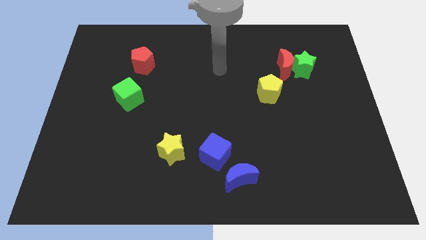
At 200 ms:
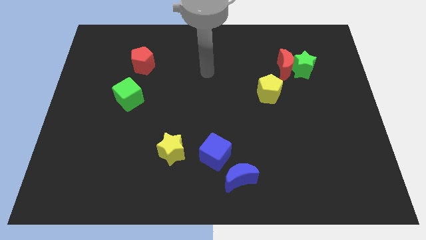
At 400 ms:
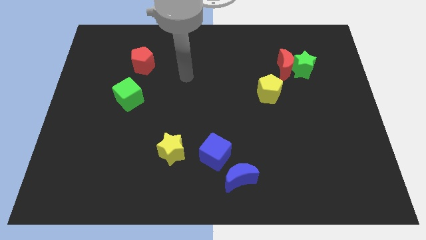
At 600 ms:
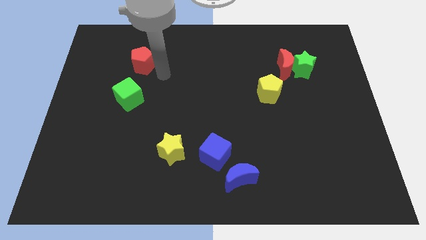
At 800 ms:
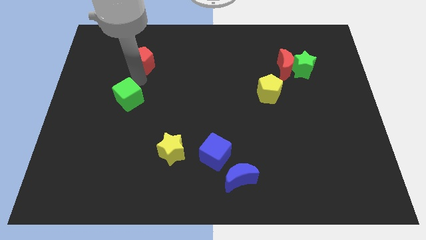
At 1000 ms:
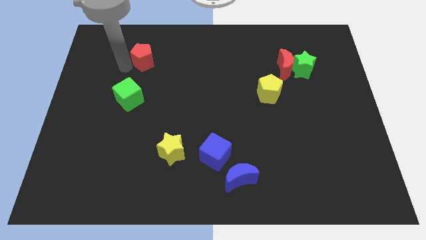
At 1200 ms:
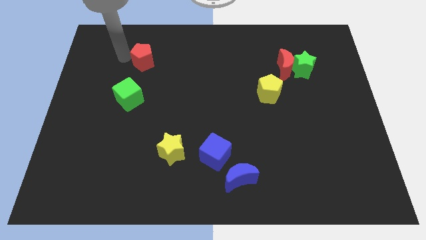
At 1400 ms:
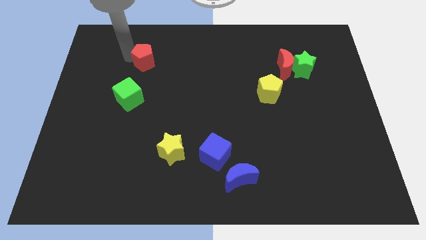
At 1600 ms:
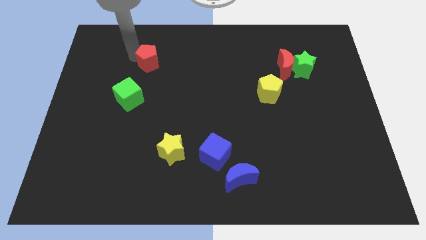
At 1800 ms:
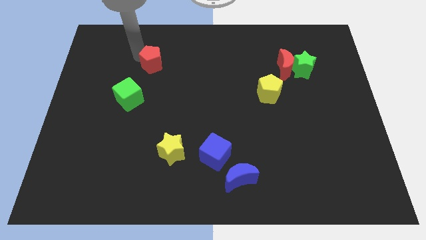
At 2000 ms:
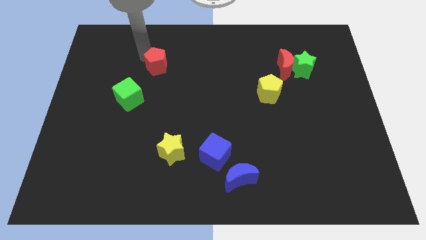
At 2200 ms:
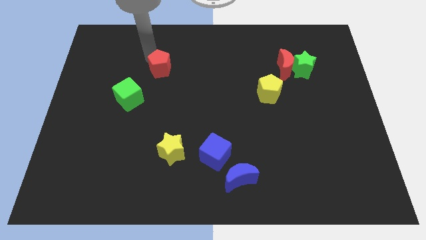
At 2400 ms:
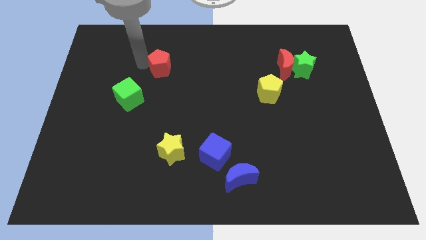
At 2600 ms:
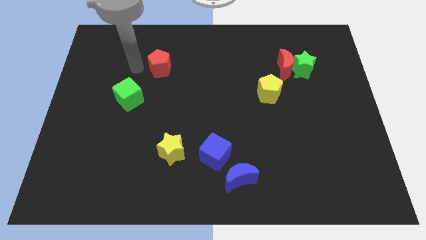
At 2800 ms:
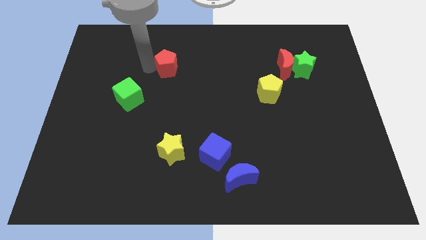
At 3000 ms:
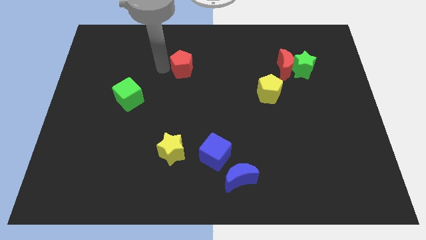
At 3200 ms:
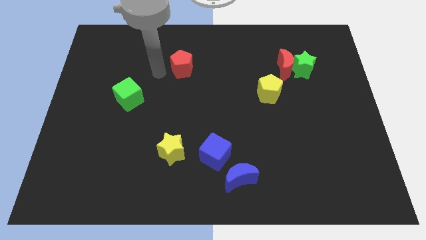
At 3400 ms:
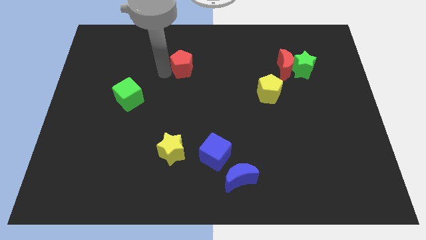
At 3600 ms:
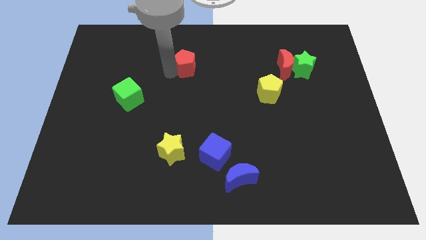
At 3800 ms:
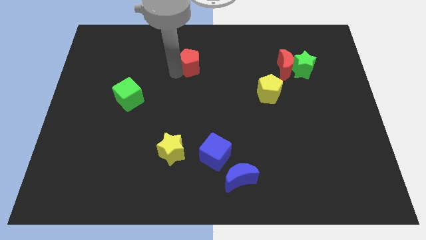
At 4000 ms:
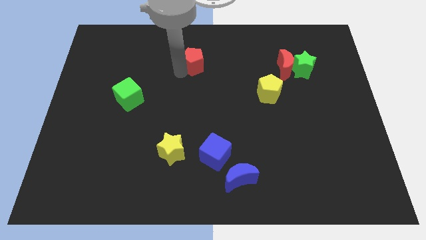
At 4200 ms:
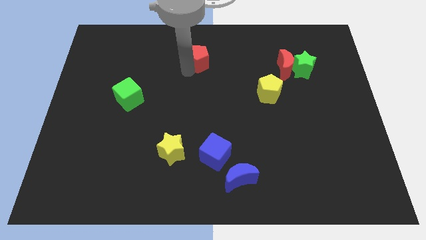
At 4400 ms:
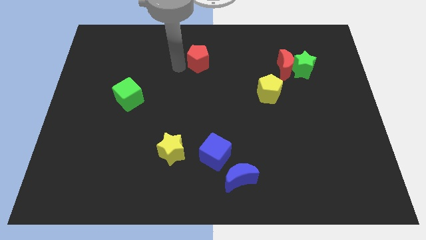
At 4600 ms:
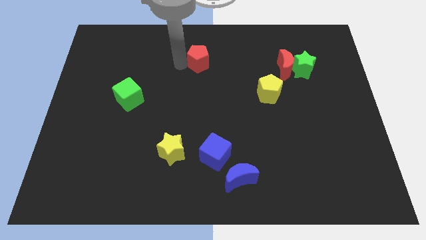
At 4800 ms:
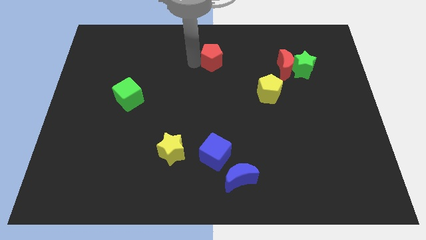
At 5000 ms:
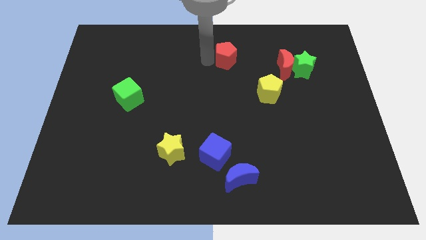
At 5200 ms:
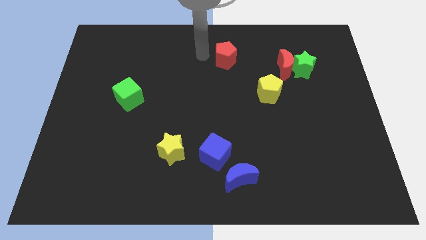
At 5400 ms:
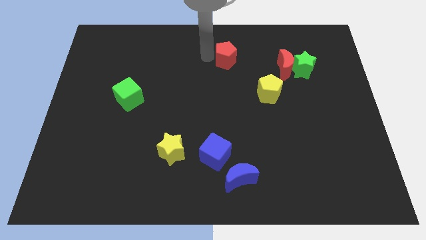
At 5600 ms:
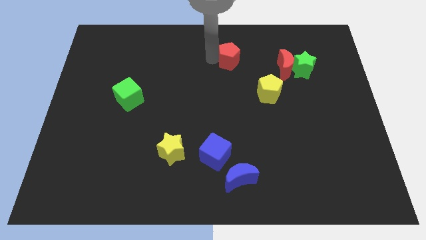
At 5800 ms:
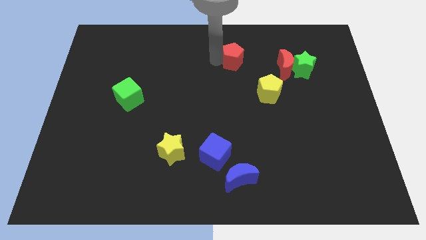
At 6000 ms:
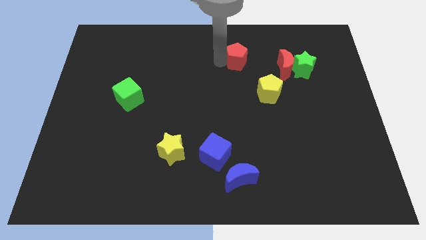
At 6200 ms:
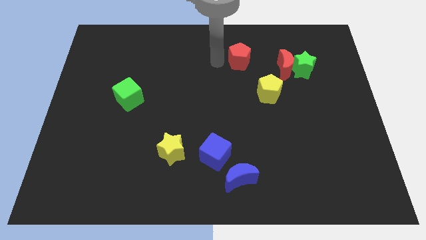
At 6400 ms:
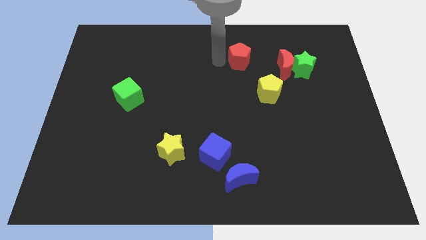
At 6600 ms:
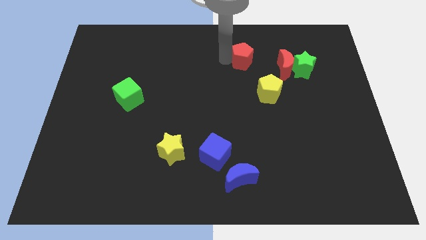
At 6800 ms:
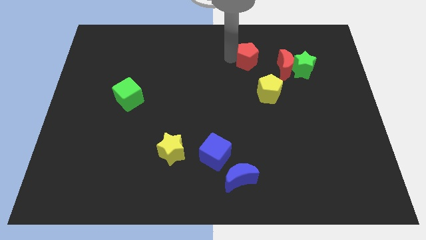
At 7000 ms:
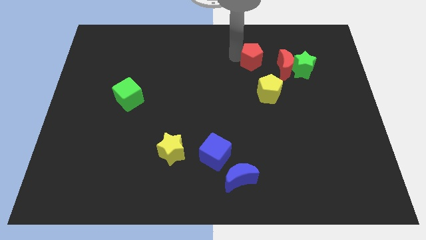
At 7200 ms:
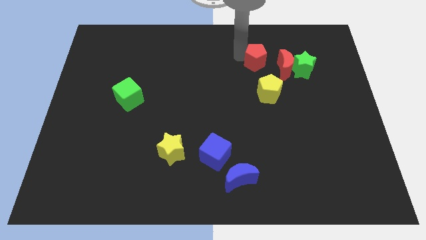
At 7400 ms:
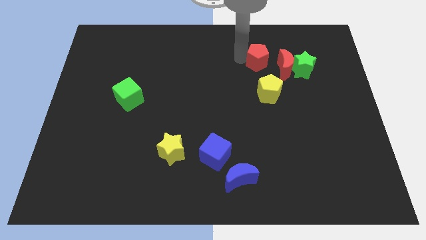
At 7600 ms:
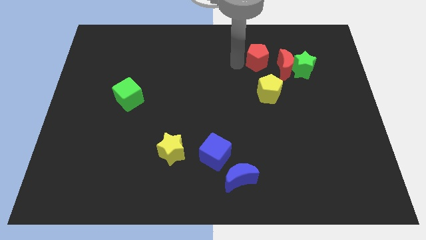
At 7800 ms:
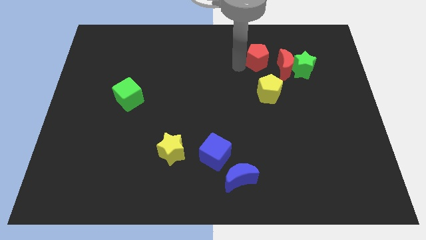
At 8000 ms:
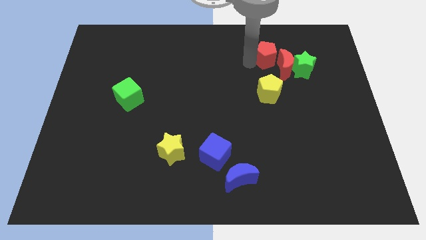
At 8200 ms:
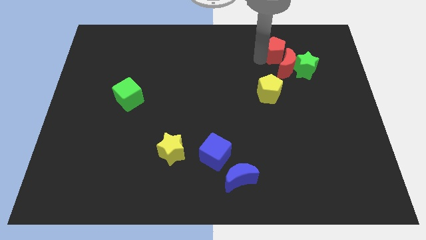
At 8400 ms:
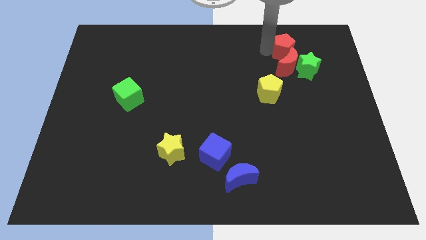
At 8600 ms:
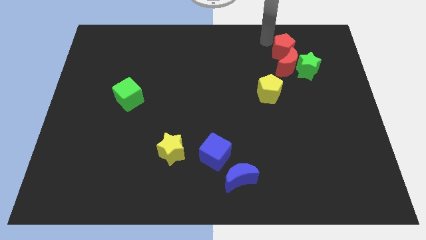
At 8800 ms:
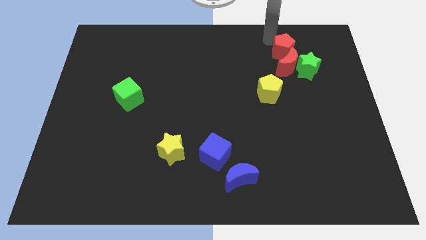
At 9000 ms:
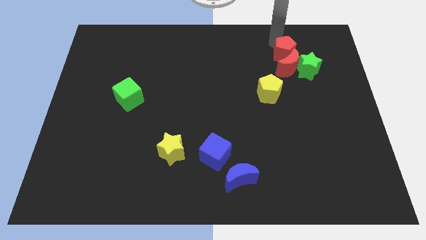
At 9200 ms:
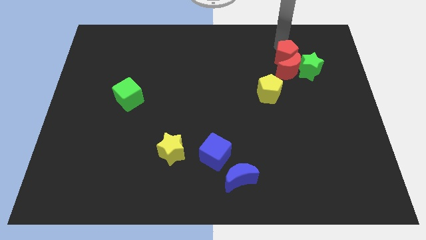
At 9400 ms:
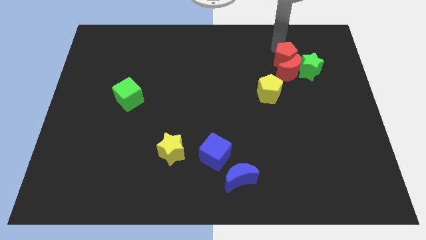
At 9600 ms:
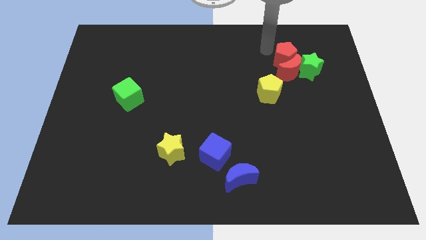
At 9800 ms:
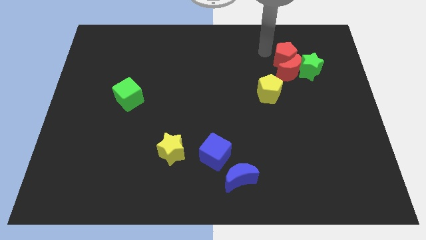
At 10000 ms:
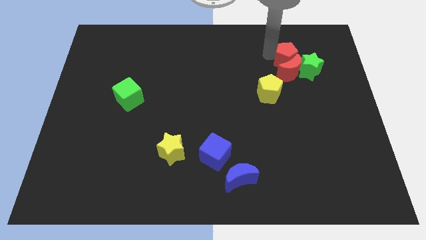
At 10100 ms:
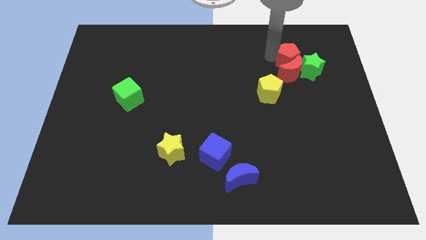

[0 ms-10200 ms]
move the red pentagon next to the green star

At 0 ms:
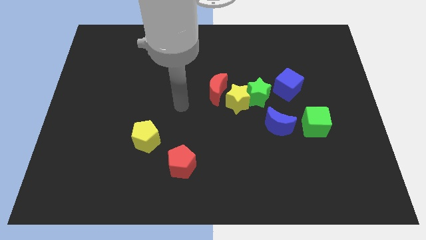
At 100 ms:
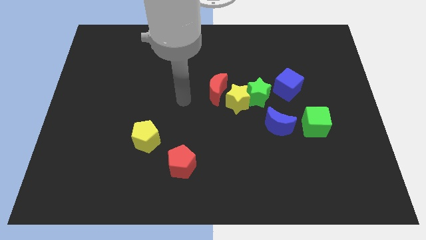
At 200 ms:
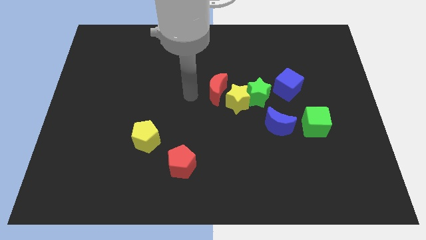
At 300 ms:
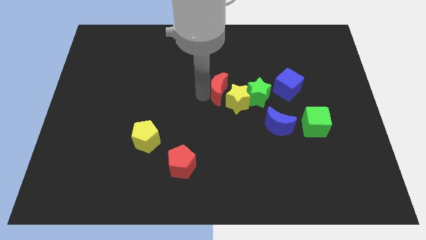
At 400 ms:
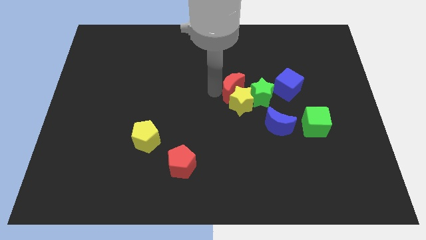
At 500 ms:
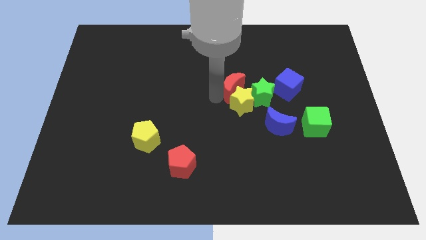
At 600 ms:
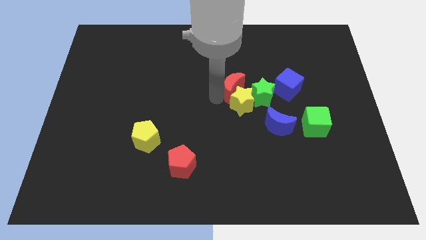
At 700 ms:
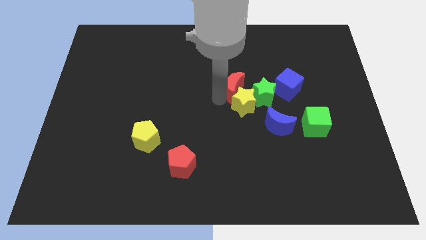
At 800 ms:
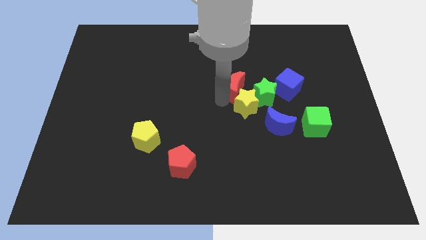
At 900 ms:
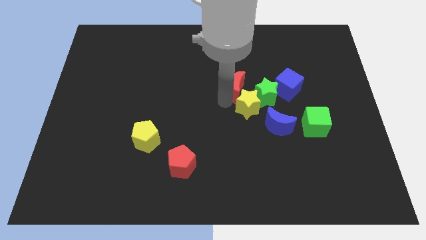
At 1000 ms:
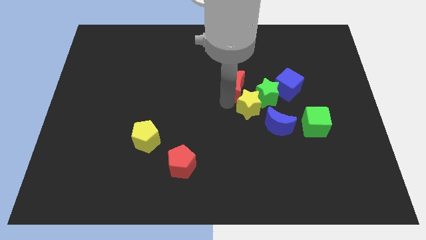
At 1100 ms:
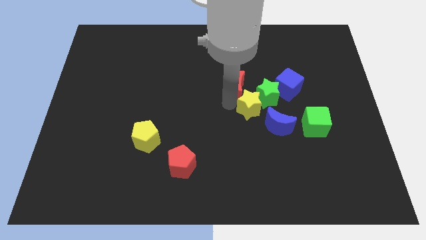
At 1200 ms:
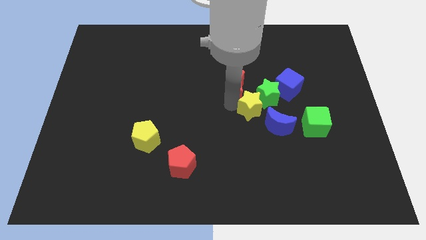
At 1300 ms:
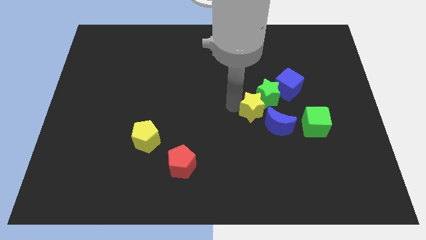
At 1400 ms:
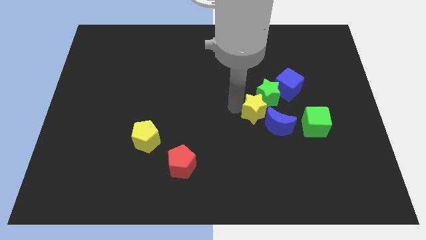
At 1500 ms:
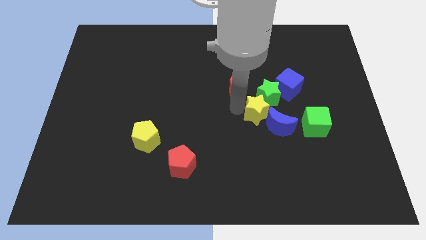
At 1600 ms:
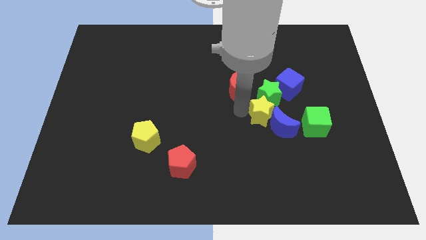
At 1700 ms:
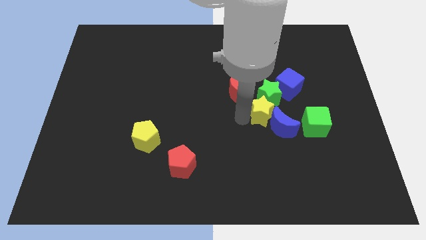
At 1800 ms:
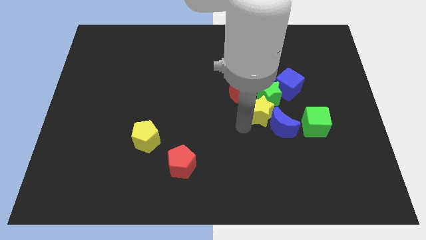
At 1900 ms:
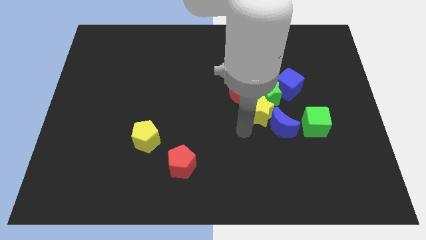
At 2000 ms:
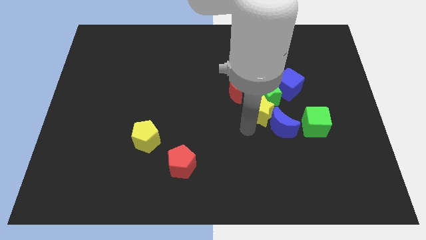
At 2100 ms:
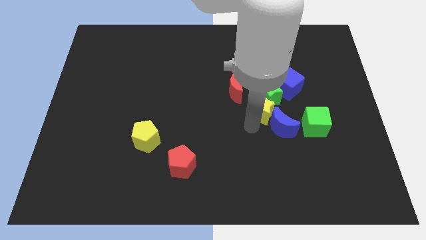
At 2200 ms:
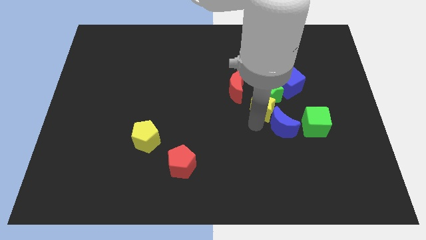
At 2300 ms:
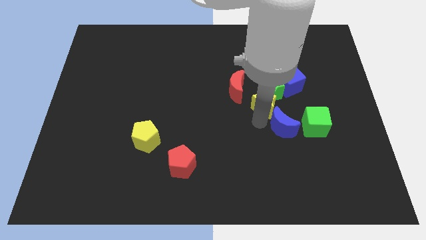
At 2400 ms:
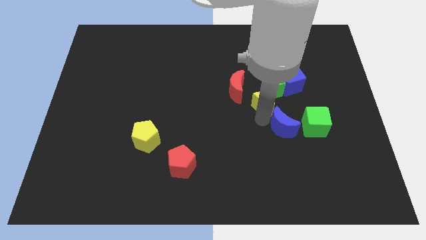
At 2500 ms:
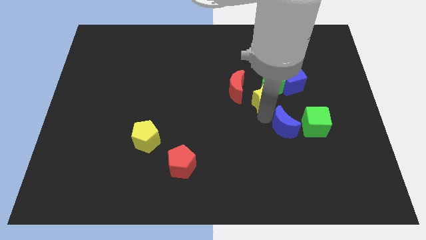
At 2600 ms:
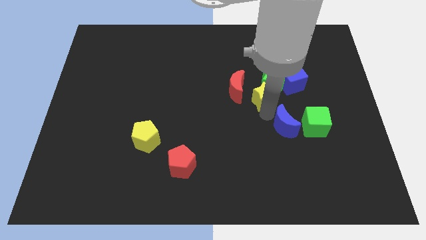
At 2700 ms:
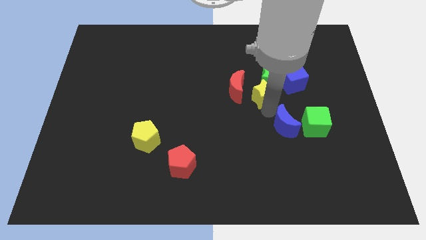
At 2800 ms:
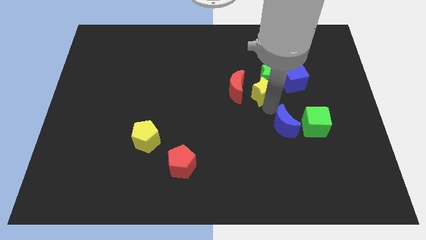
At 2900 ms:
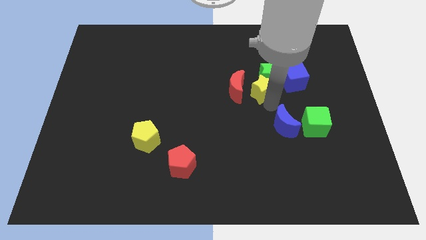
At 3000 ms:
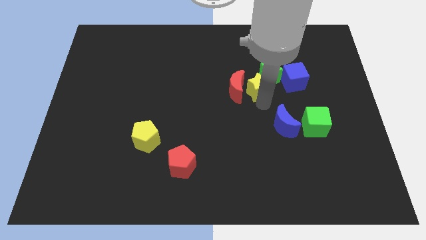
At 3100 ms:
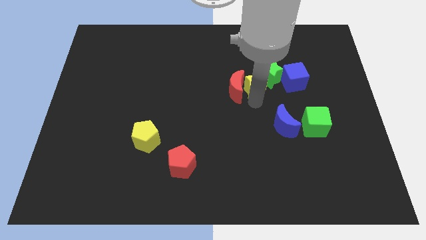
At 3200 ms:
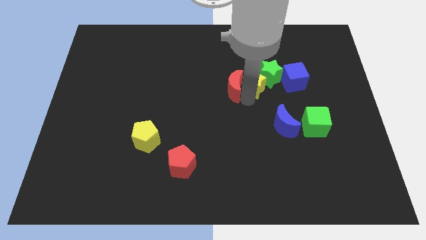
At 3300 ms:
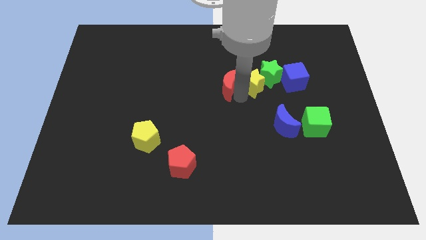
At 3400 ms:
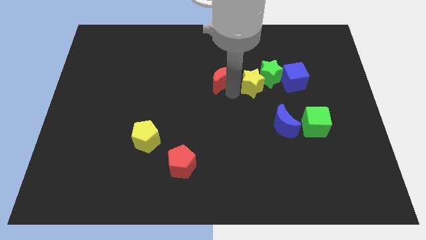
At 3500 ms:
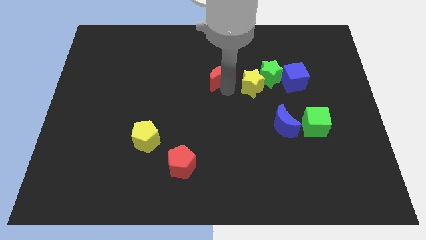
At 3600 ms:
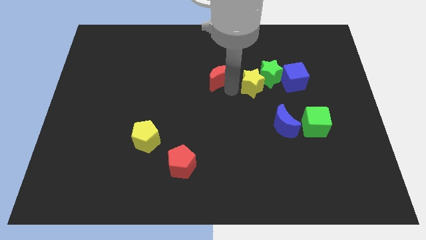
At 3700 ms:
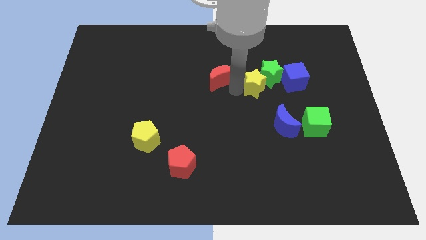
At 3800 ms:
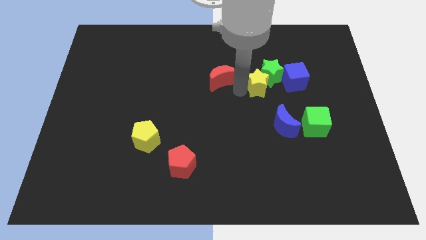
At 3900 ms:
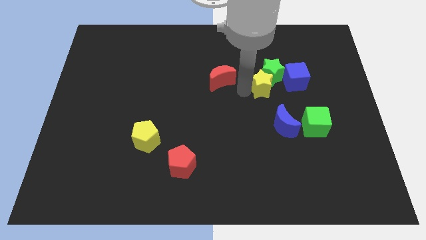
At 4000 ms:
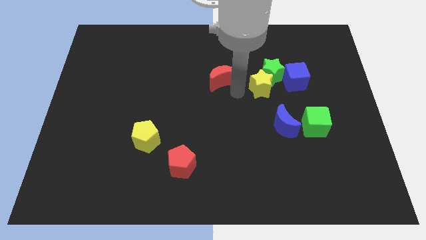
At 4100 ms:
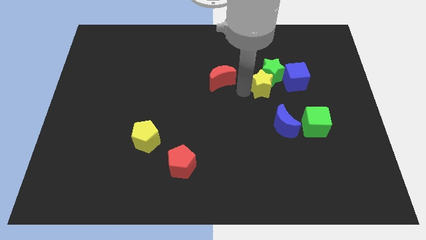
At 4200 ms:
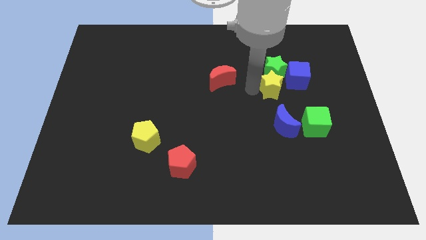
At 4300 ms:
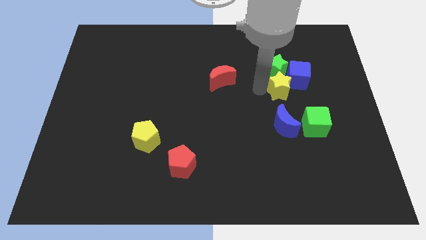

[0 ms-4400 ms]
put the yellow star towards the blue cube
